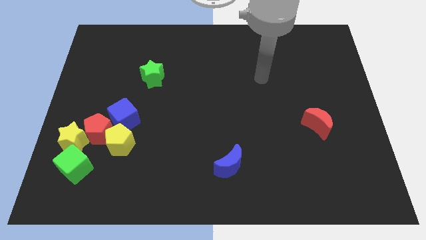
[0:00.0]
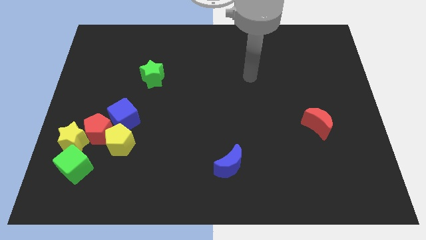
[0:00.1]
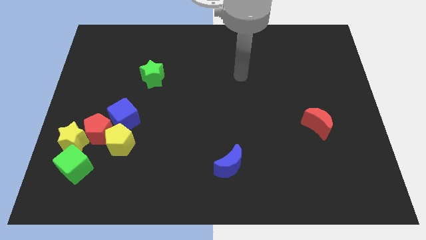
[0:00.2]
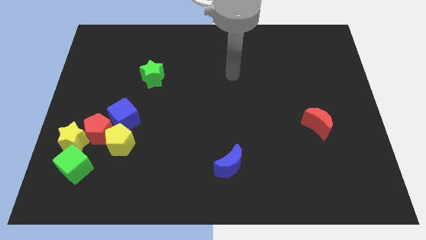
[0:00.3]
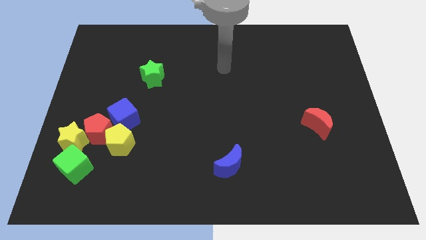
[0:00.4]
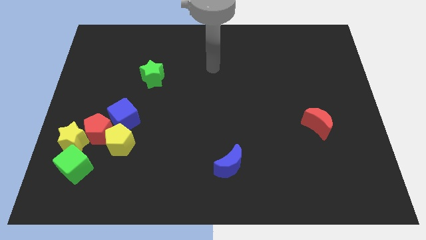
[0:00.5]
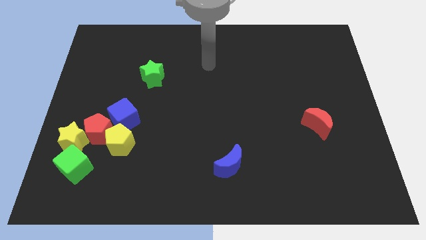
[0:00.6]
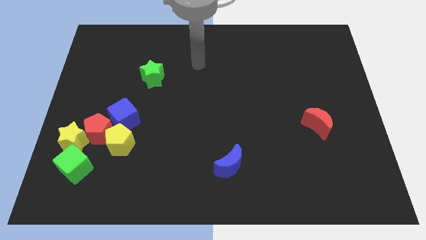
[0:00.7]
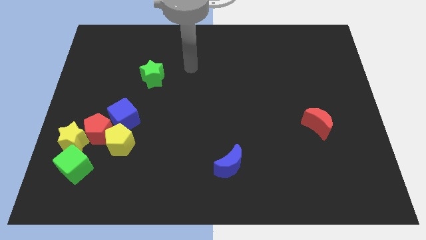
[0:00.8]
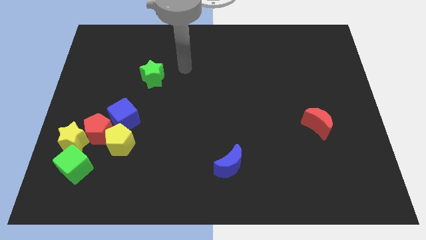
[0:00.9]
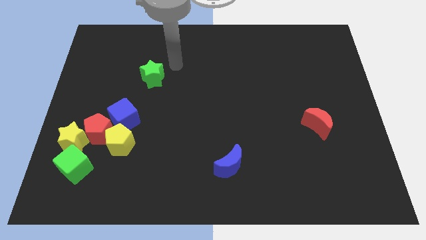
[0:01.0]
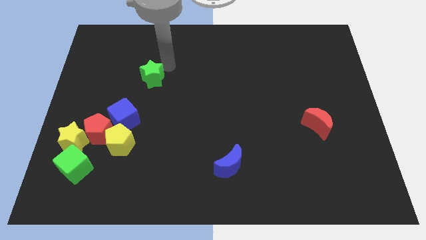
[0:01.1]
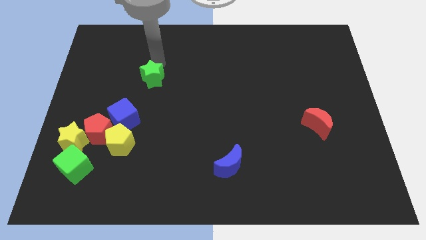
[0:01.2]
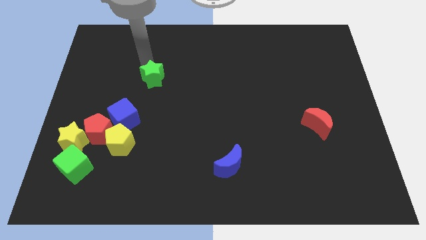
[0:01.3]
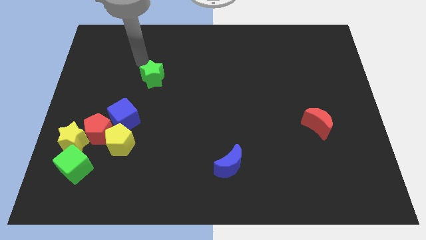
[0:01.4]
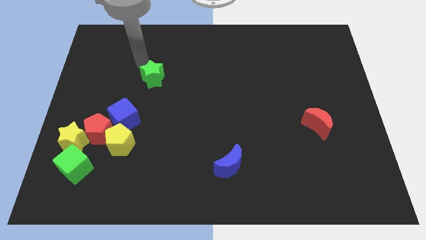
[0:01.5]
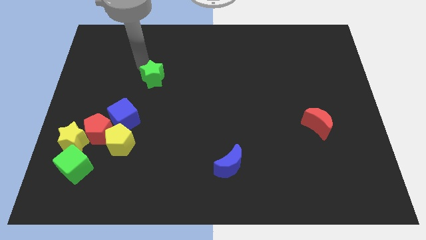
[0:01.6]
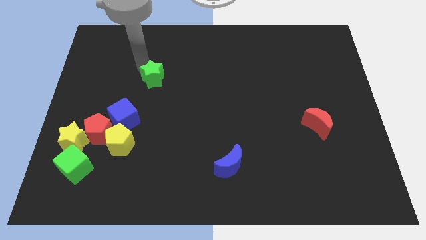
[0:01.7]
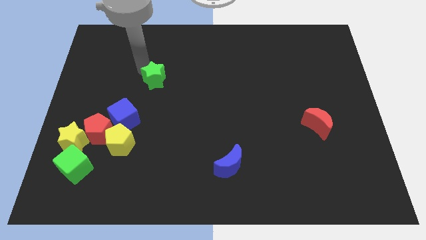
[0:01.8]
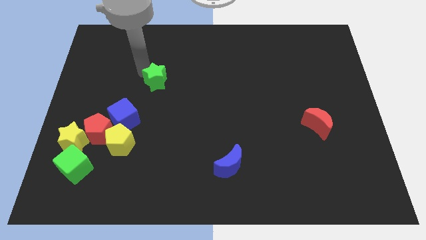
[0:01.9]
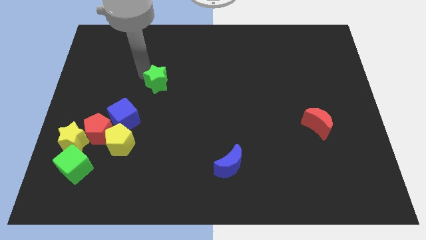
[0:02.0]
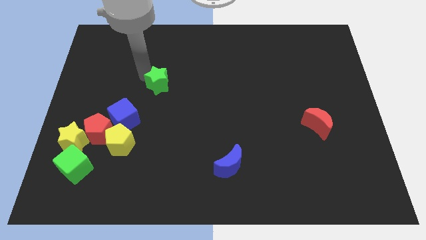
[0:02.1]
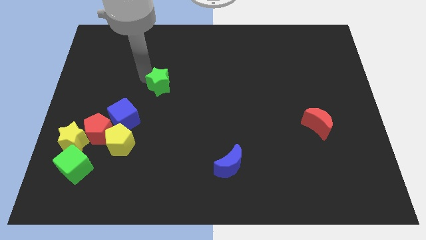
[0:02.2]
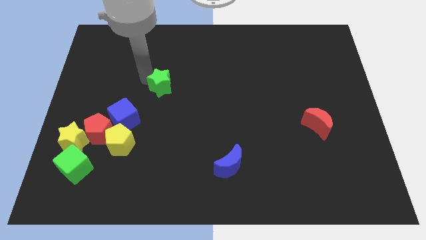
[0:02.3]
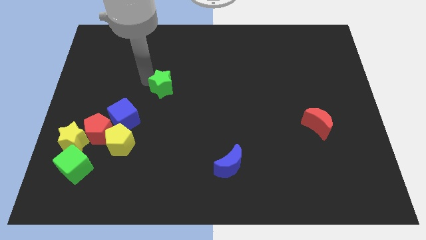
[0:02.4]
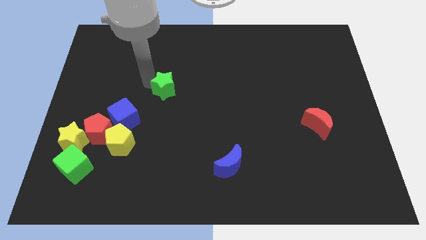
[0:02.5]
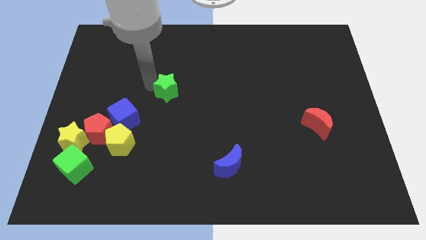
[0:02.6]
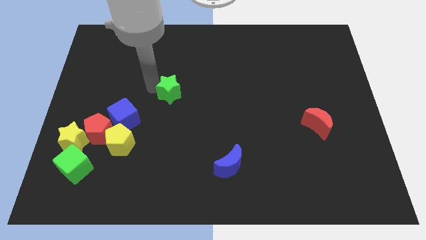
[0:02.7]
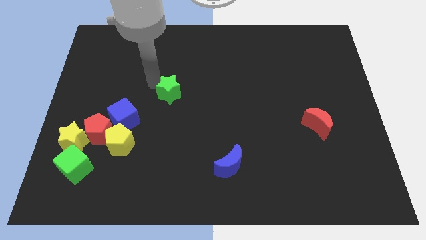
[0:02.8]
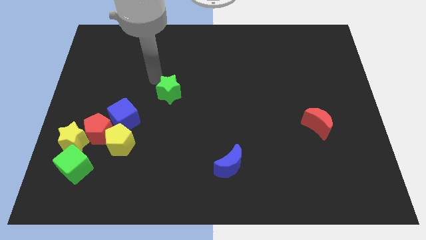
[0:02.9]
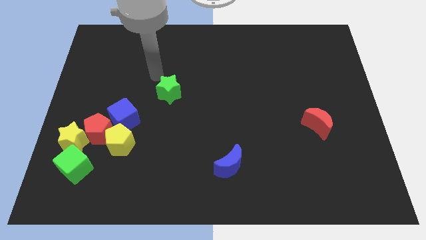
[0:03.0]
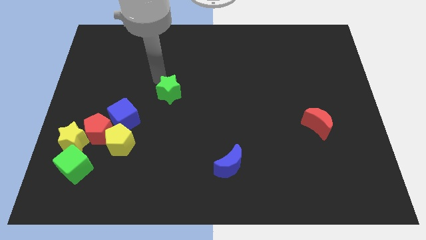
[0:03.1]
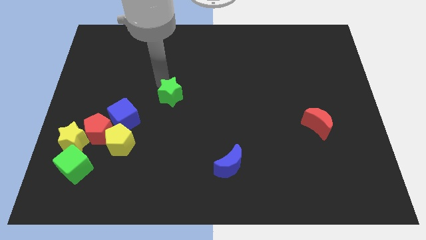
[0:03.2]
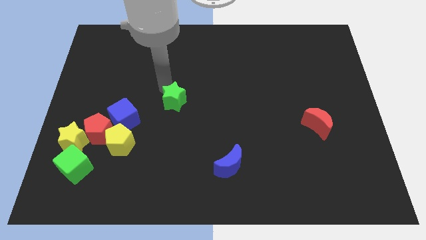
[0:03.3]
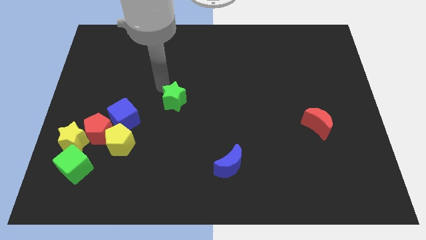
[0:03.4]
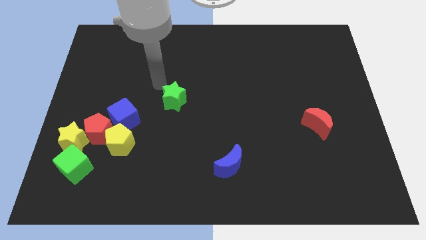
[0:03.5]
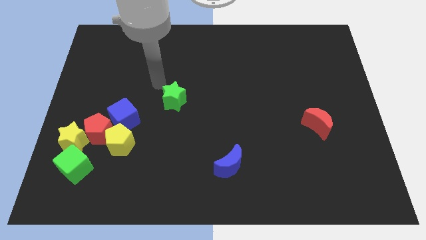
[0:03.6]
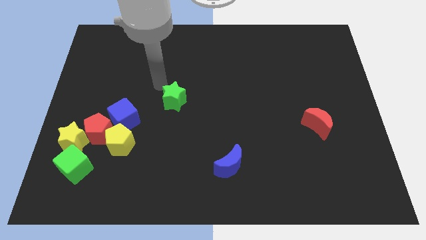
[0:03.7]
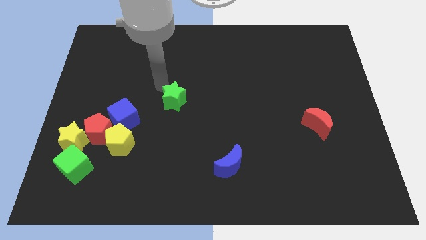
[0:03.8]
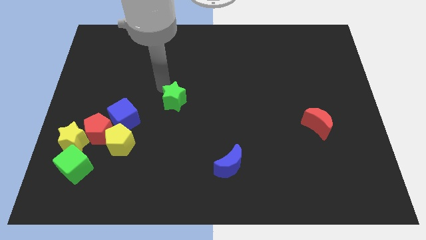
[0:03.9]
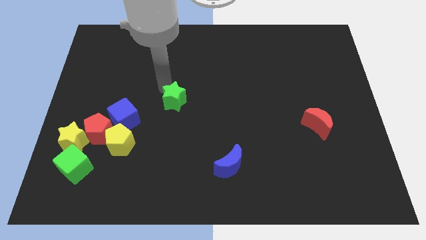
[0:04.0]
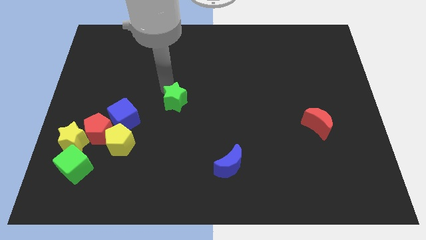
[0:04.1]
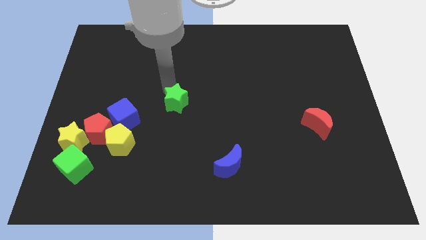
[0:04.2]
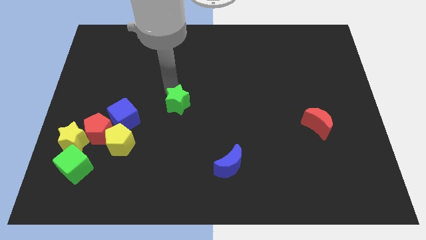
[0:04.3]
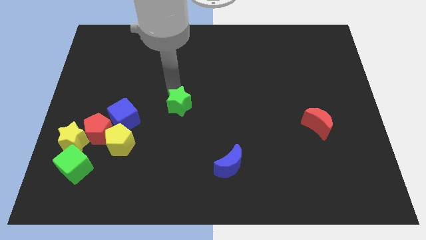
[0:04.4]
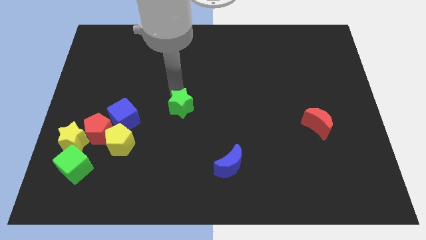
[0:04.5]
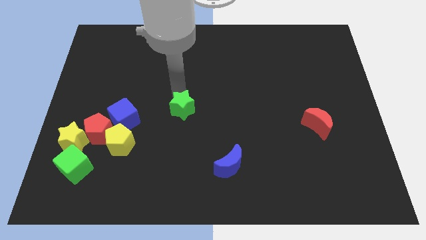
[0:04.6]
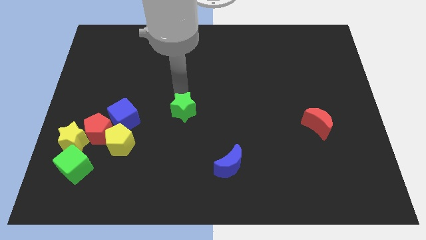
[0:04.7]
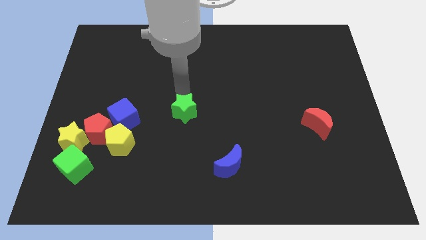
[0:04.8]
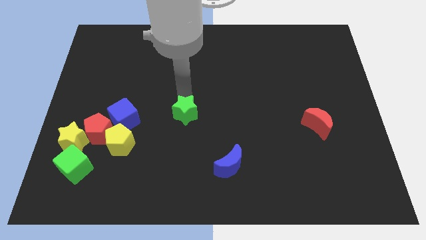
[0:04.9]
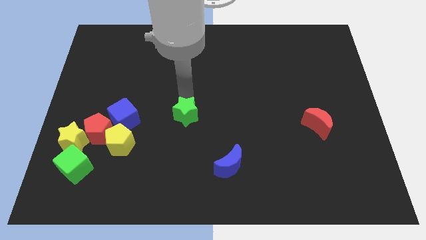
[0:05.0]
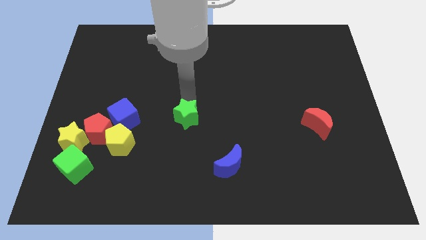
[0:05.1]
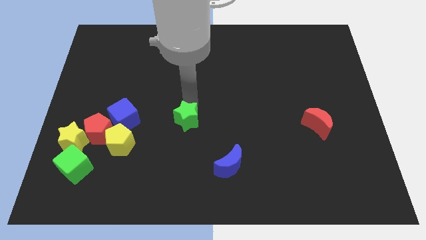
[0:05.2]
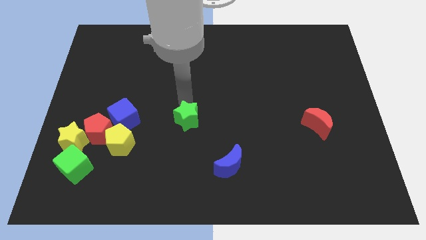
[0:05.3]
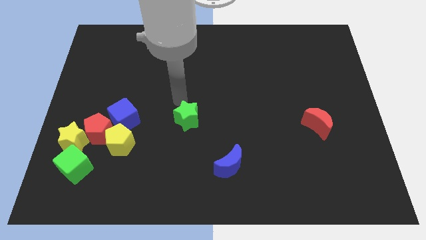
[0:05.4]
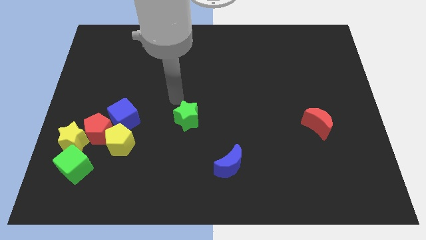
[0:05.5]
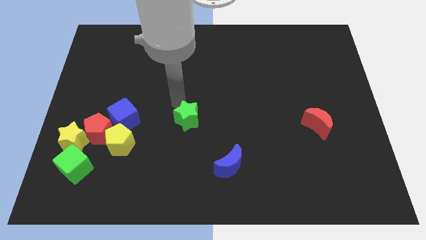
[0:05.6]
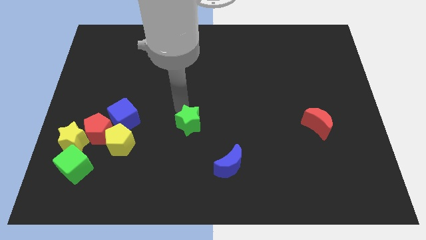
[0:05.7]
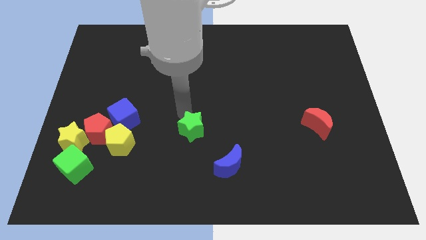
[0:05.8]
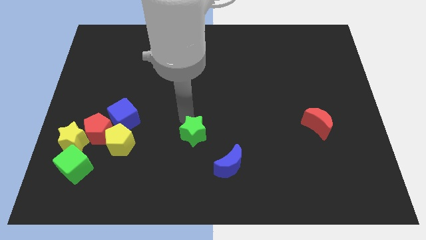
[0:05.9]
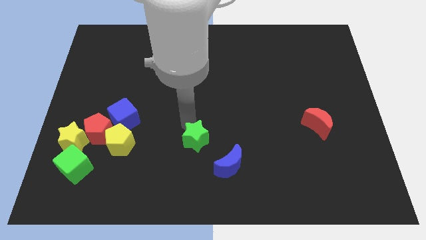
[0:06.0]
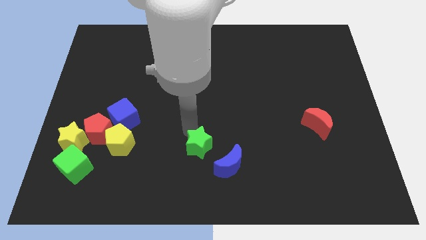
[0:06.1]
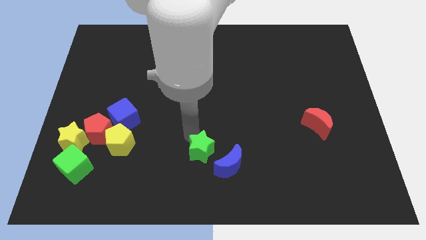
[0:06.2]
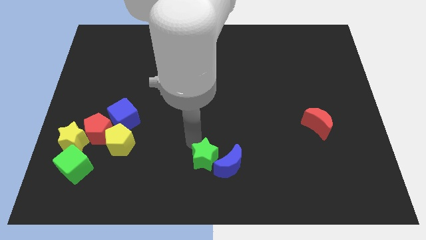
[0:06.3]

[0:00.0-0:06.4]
put the green star towards the blue moon

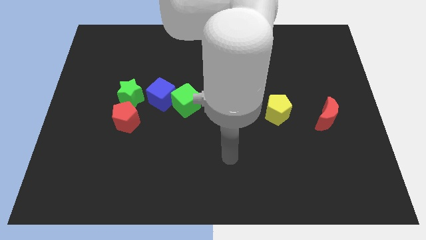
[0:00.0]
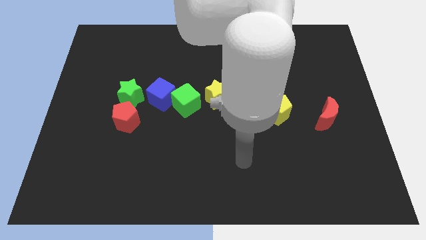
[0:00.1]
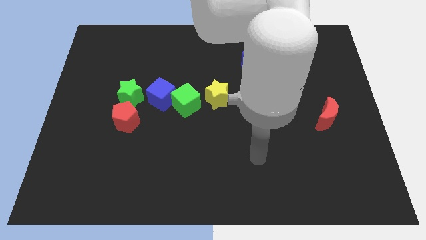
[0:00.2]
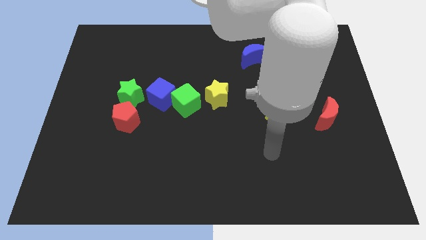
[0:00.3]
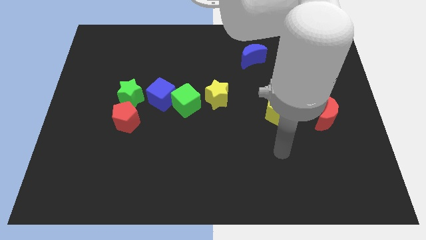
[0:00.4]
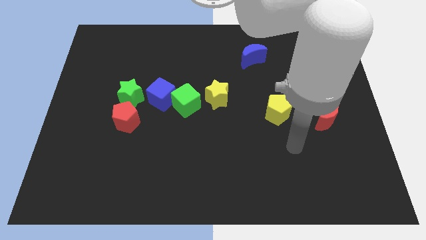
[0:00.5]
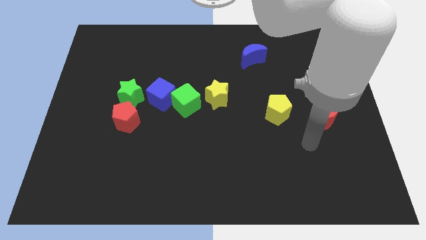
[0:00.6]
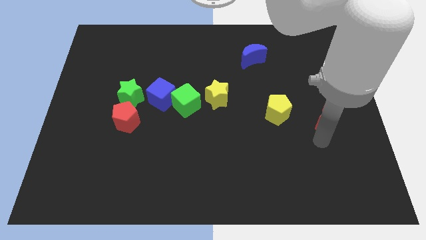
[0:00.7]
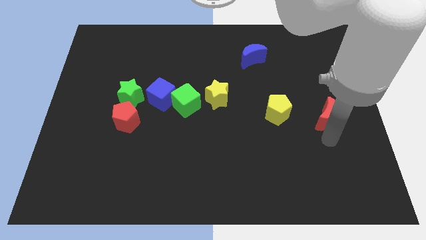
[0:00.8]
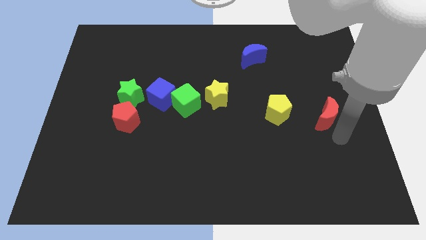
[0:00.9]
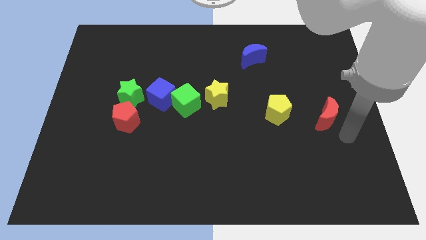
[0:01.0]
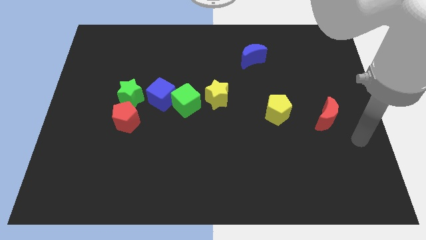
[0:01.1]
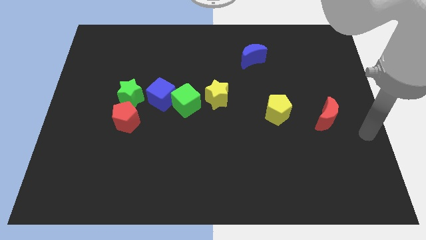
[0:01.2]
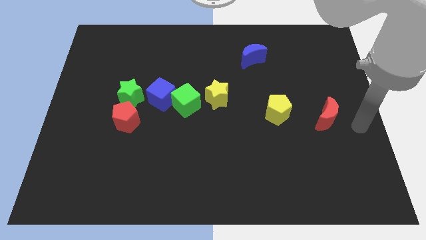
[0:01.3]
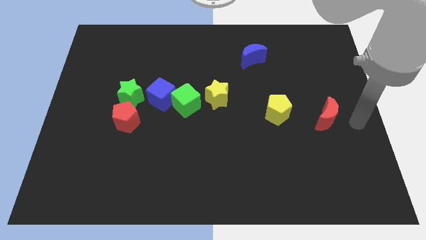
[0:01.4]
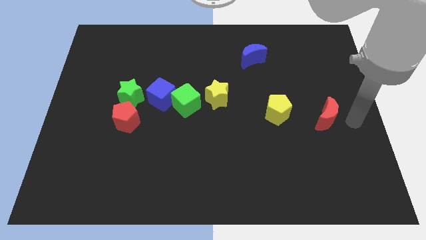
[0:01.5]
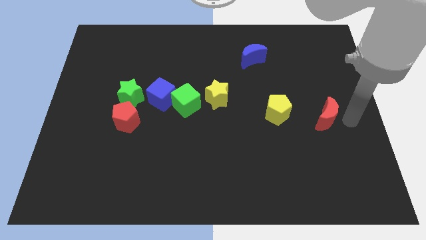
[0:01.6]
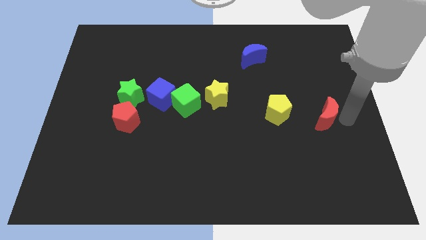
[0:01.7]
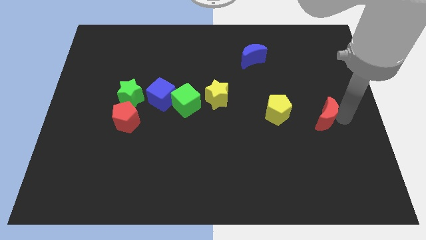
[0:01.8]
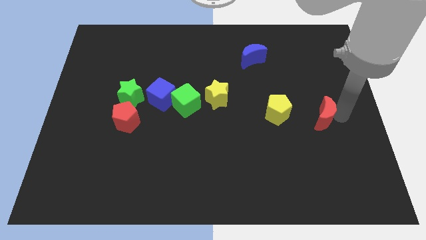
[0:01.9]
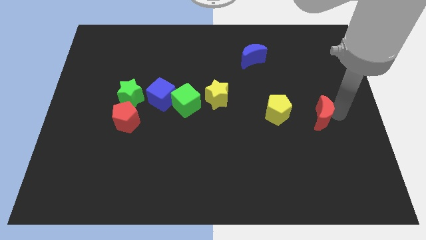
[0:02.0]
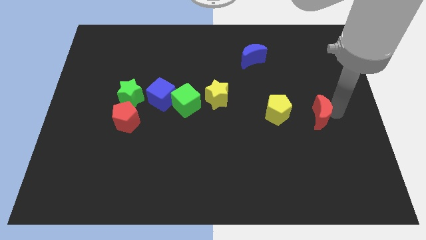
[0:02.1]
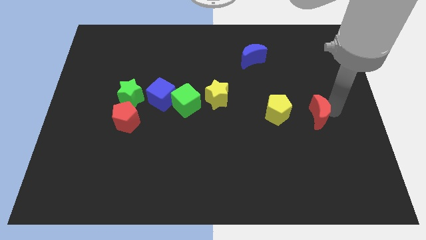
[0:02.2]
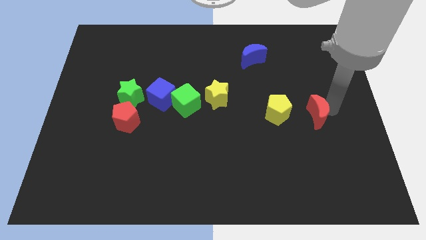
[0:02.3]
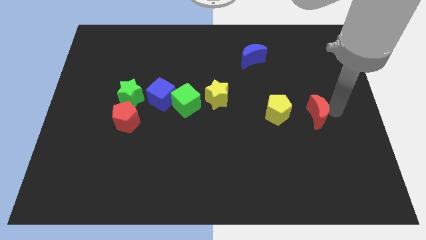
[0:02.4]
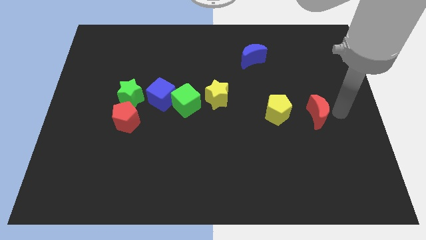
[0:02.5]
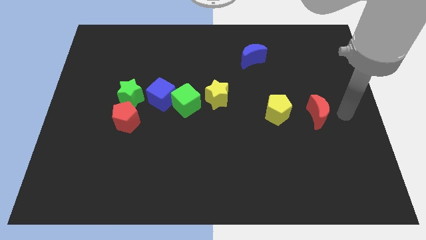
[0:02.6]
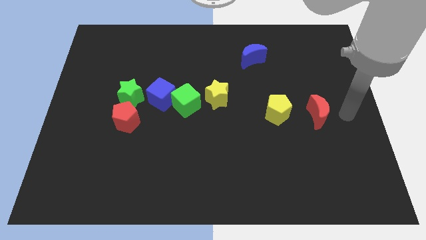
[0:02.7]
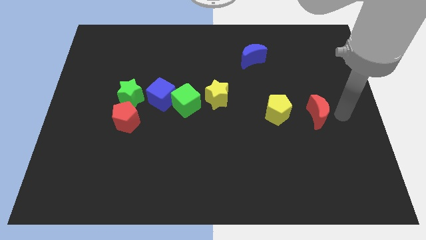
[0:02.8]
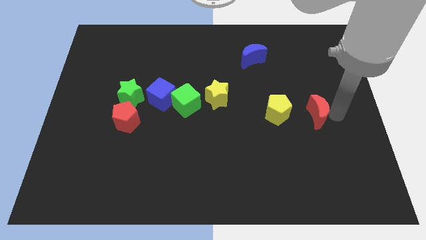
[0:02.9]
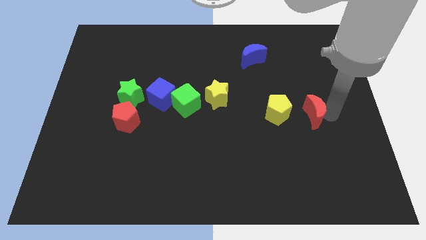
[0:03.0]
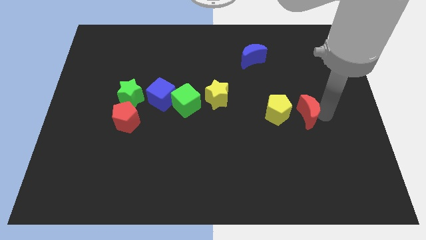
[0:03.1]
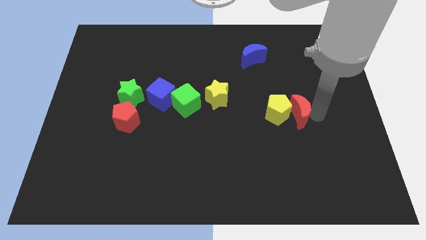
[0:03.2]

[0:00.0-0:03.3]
move the red moon towards the yellow pentagon
